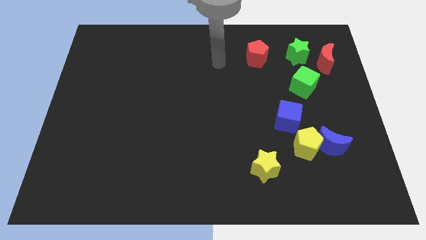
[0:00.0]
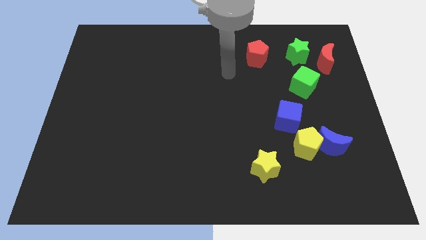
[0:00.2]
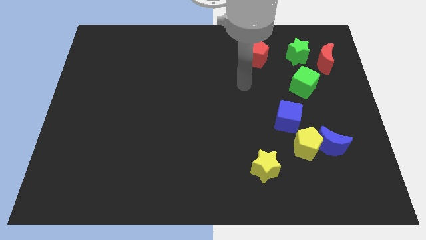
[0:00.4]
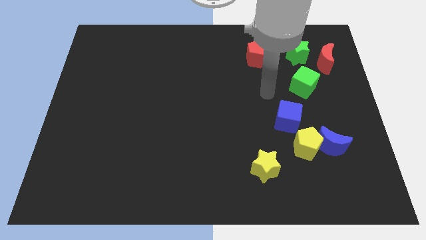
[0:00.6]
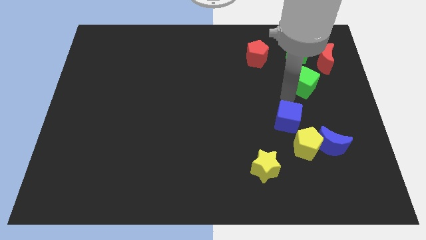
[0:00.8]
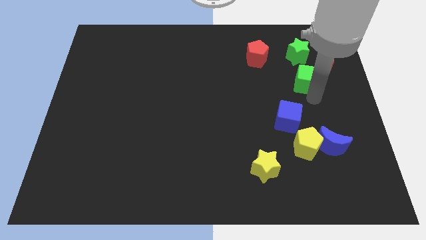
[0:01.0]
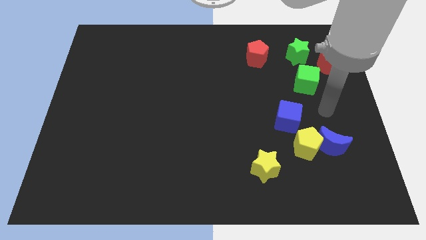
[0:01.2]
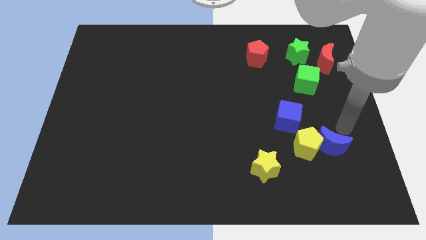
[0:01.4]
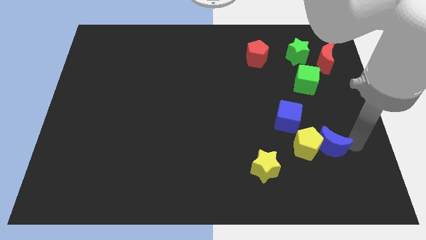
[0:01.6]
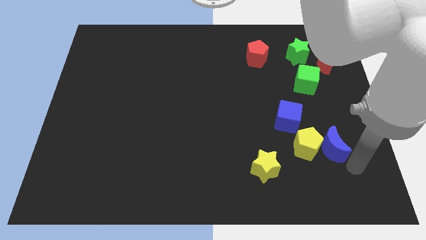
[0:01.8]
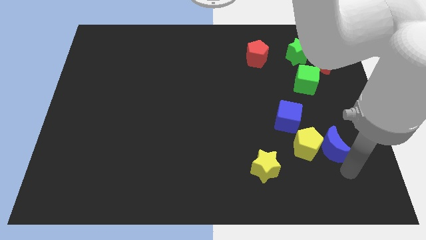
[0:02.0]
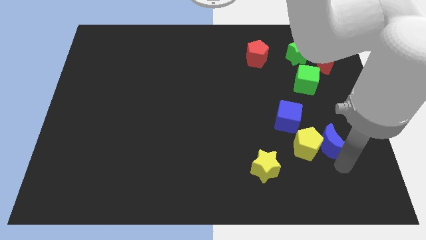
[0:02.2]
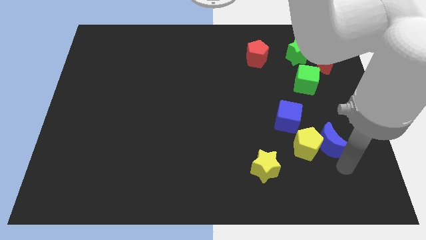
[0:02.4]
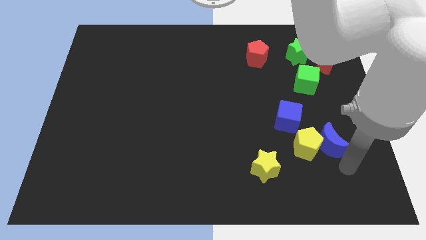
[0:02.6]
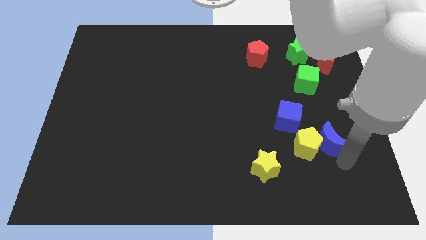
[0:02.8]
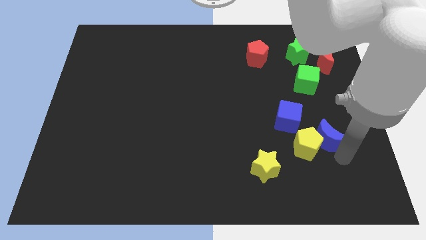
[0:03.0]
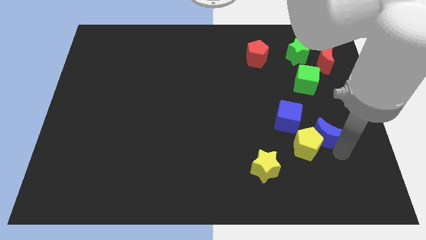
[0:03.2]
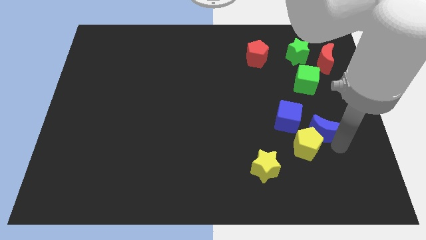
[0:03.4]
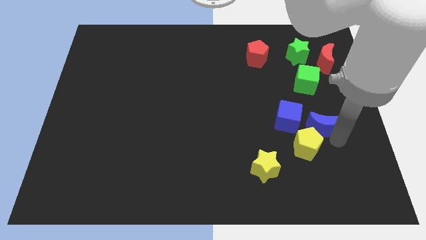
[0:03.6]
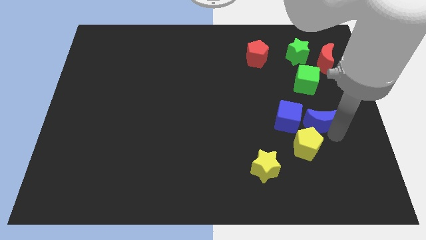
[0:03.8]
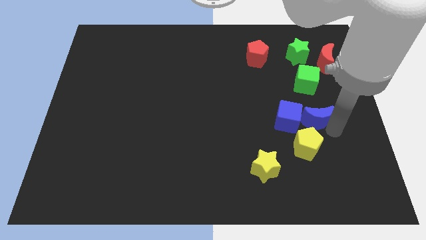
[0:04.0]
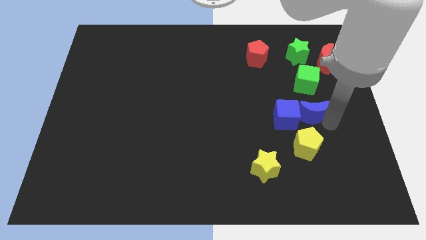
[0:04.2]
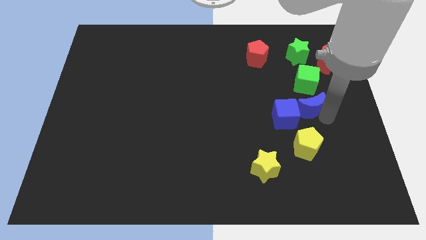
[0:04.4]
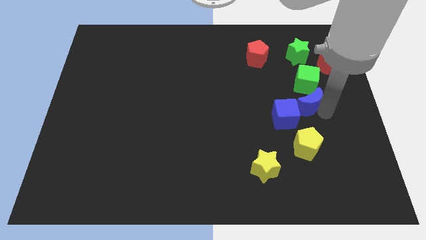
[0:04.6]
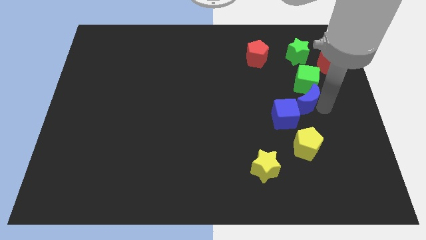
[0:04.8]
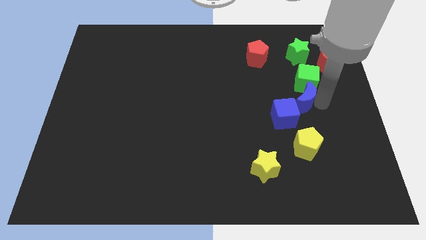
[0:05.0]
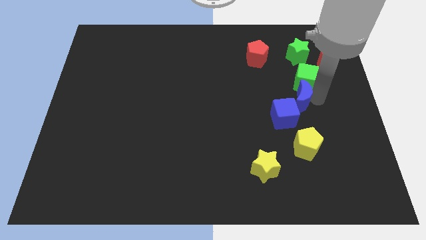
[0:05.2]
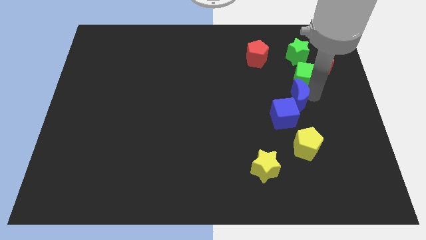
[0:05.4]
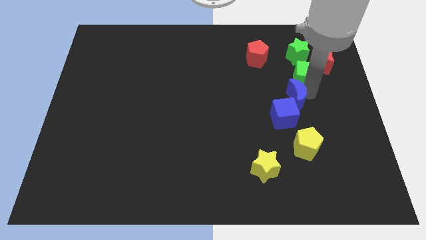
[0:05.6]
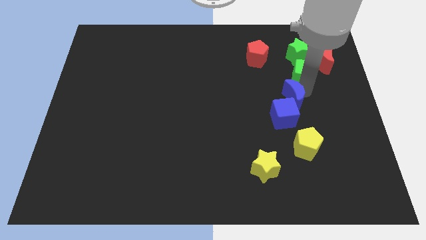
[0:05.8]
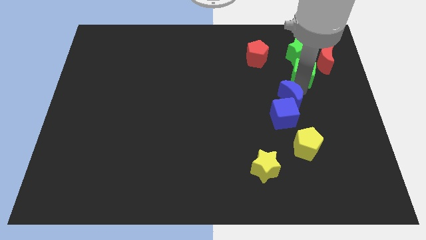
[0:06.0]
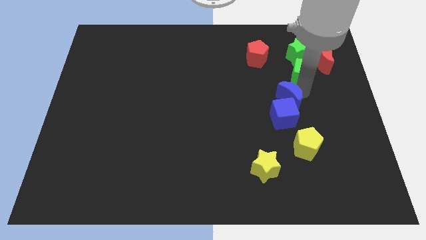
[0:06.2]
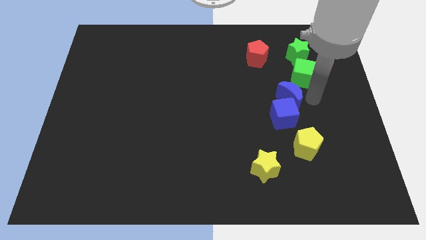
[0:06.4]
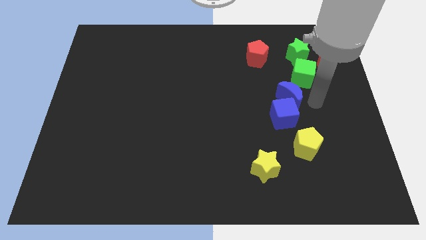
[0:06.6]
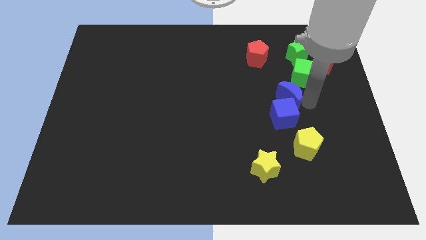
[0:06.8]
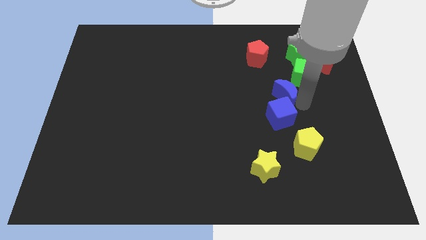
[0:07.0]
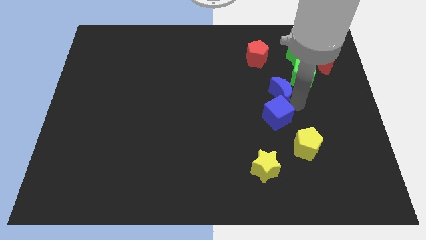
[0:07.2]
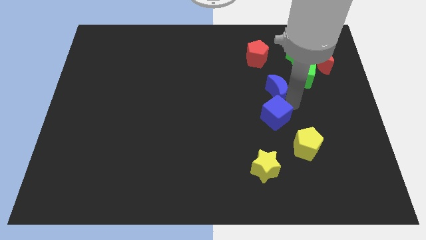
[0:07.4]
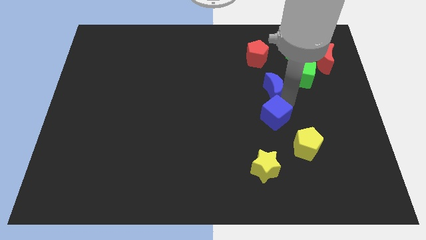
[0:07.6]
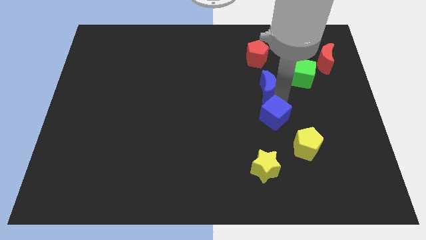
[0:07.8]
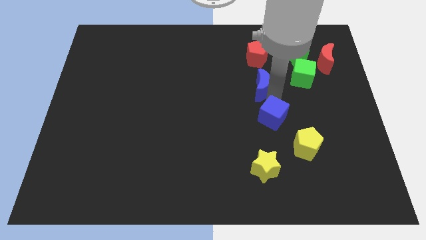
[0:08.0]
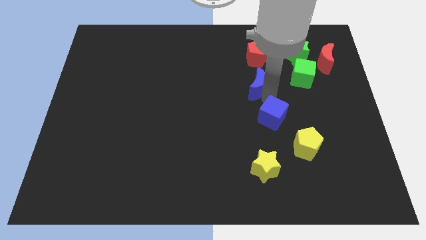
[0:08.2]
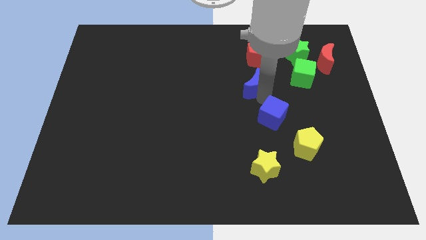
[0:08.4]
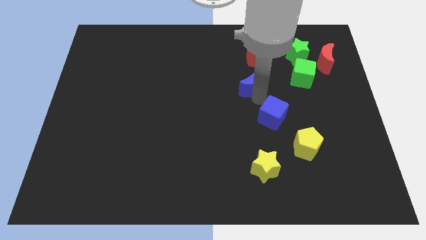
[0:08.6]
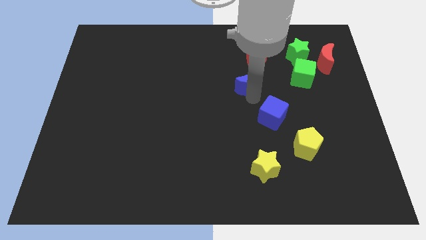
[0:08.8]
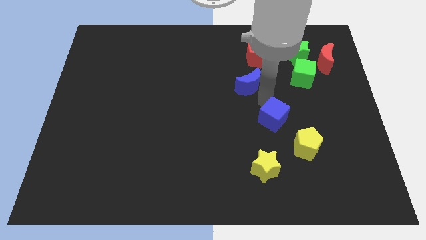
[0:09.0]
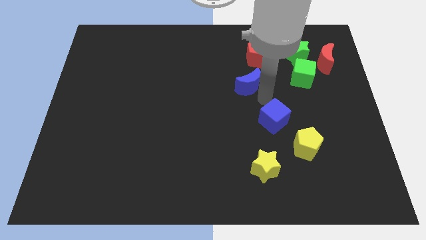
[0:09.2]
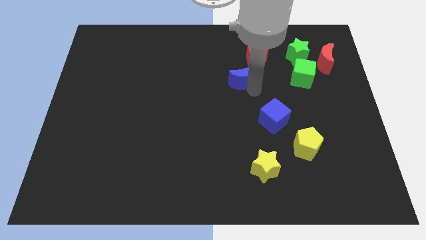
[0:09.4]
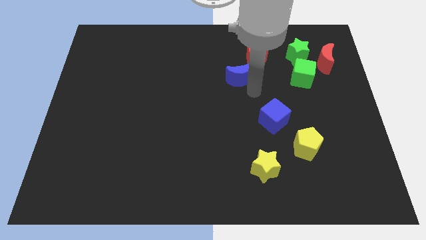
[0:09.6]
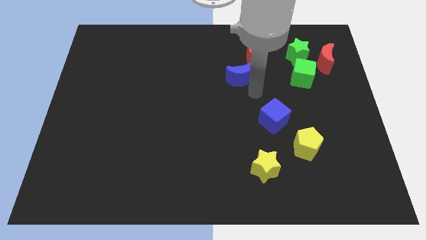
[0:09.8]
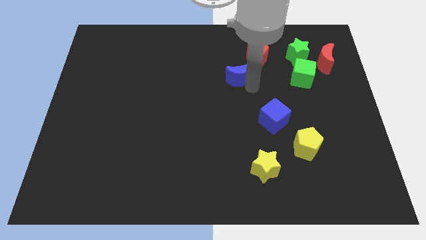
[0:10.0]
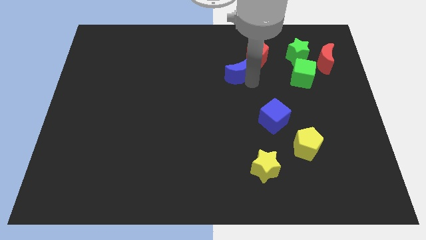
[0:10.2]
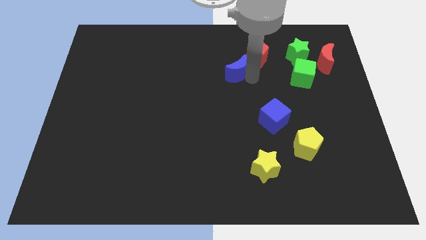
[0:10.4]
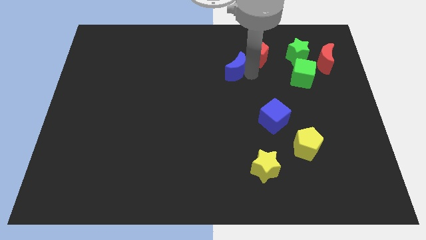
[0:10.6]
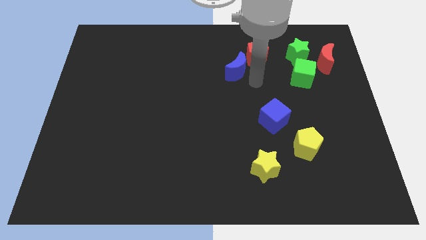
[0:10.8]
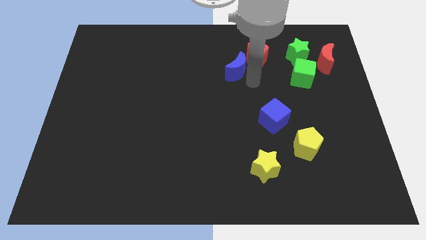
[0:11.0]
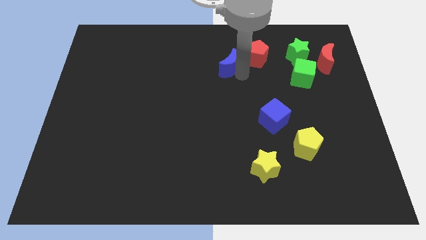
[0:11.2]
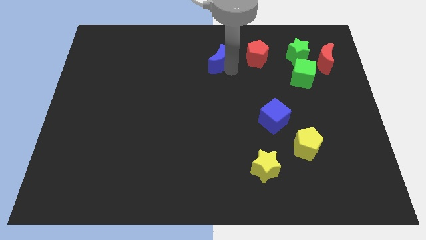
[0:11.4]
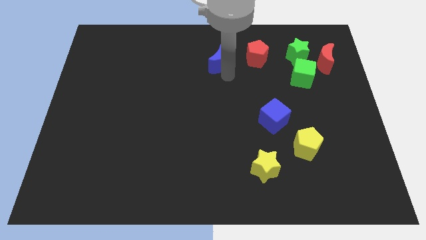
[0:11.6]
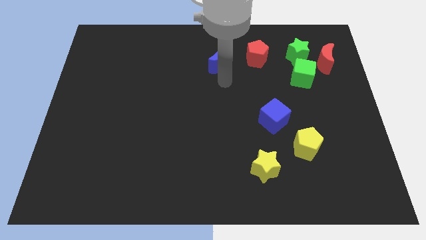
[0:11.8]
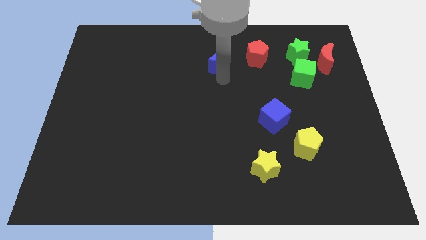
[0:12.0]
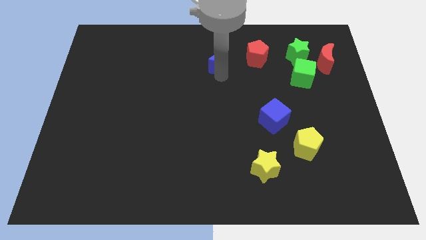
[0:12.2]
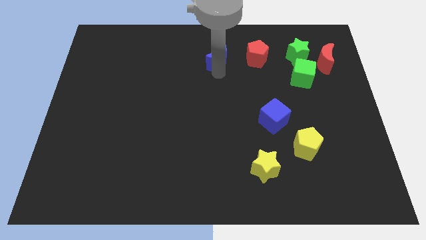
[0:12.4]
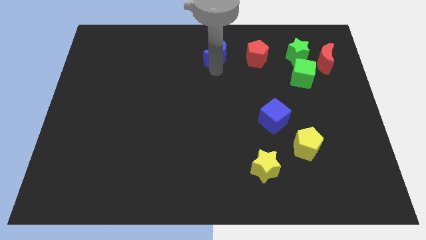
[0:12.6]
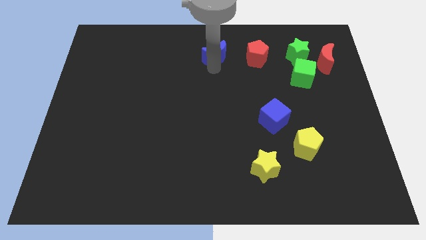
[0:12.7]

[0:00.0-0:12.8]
move the blue moon to the top
